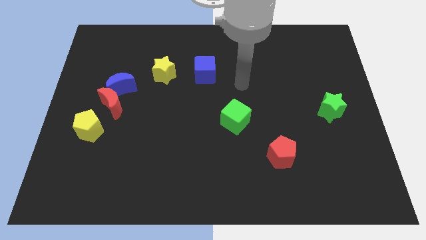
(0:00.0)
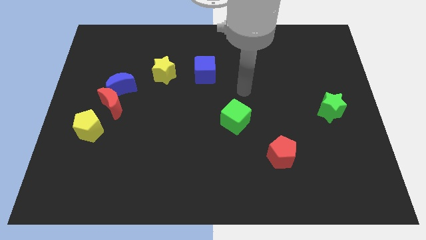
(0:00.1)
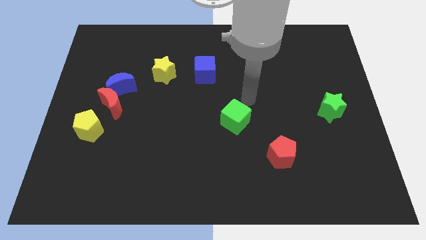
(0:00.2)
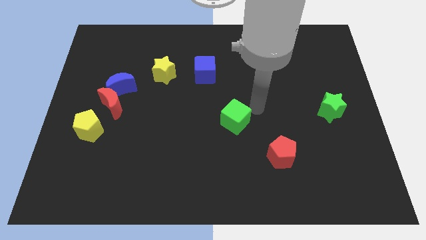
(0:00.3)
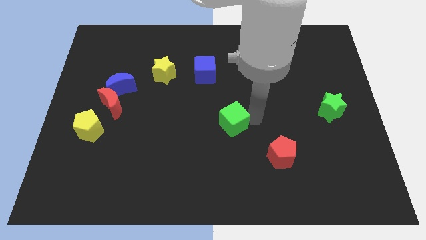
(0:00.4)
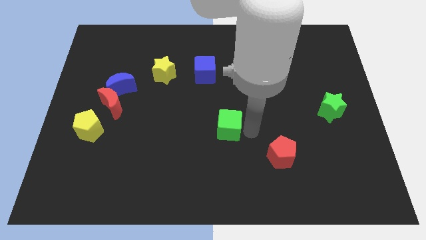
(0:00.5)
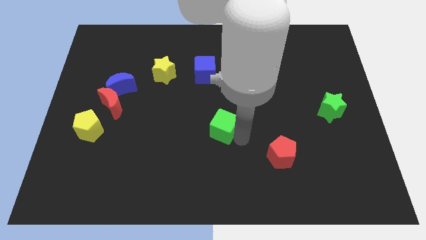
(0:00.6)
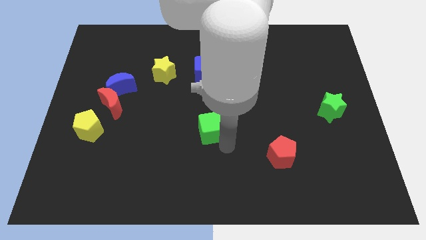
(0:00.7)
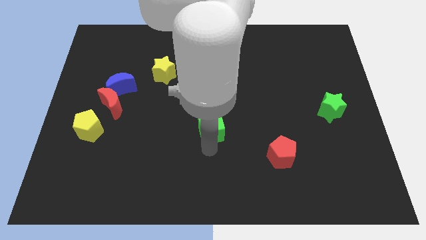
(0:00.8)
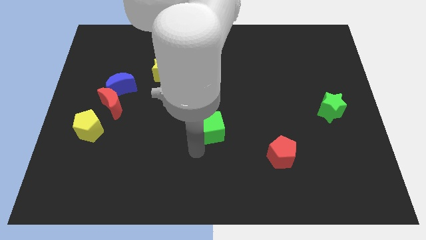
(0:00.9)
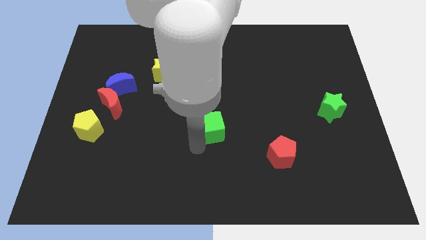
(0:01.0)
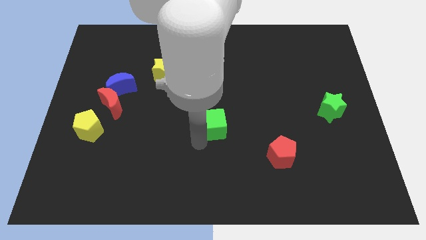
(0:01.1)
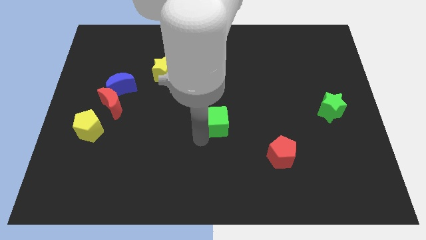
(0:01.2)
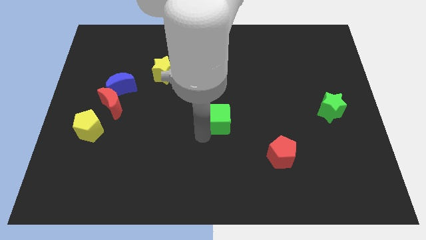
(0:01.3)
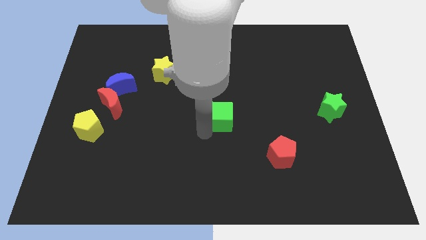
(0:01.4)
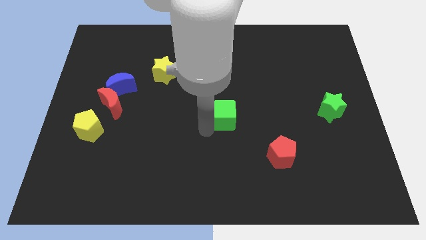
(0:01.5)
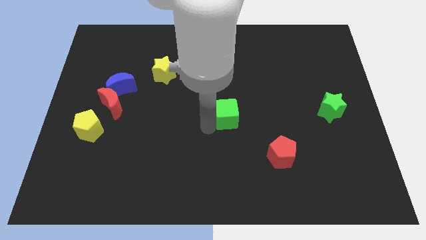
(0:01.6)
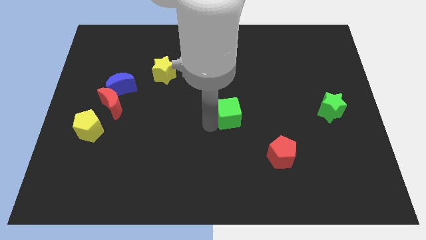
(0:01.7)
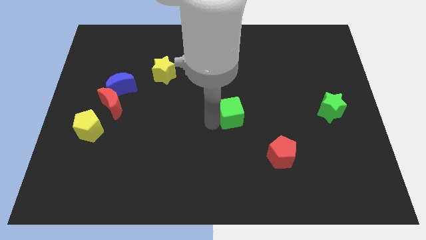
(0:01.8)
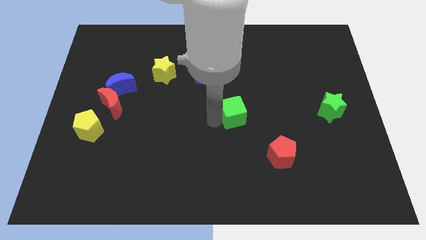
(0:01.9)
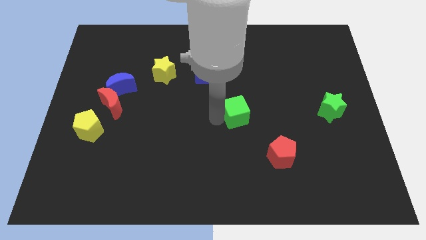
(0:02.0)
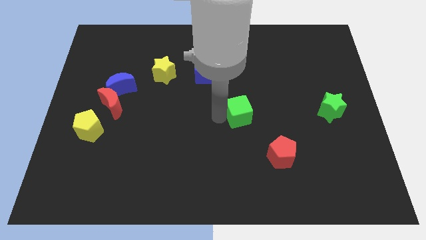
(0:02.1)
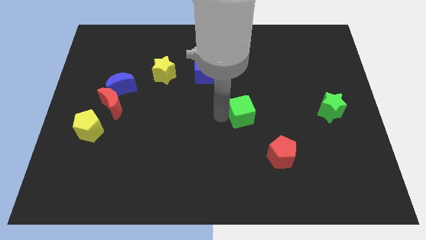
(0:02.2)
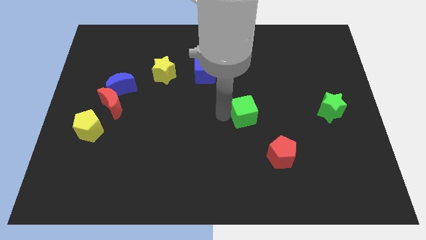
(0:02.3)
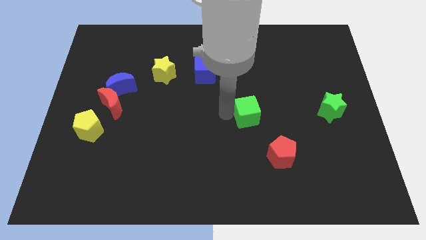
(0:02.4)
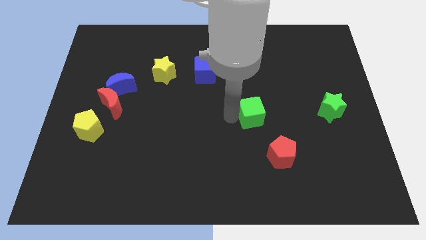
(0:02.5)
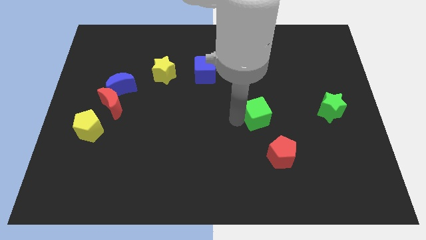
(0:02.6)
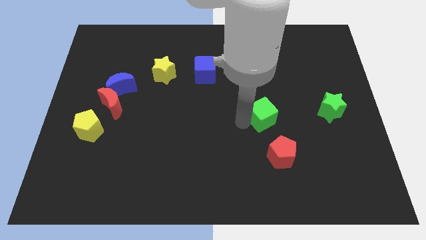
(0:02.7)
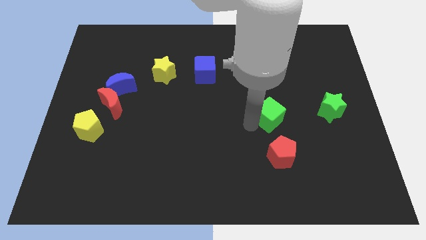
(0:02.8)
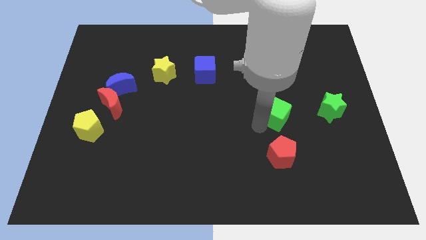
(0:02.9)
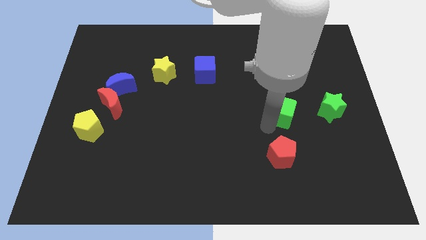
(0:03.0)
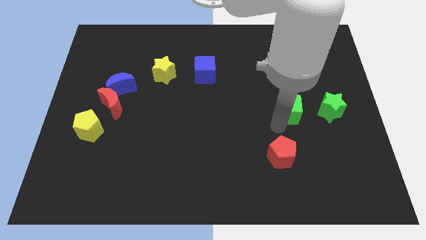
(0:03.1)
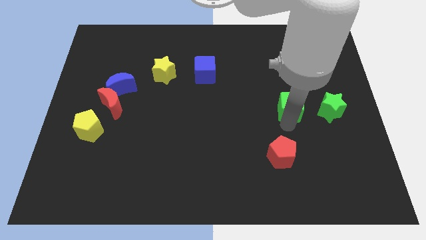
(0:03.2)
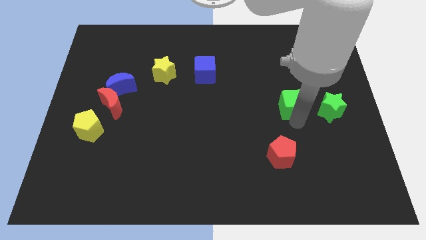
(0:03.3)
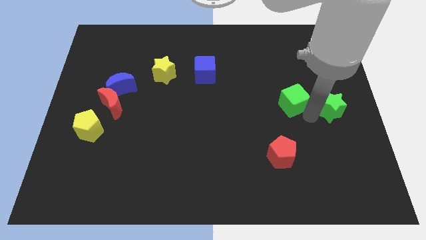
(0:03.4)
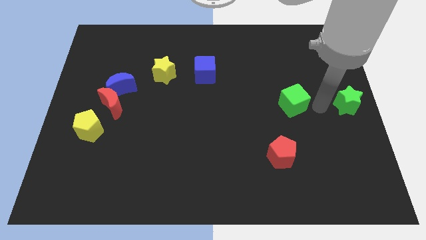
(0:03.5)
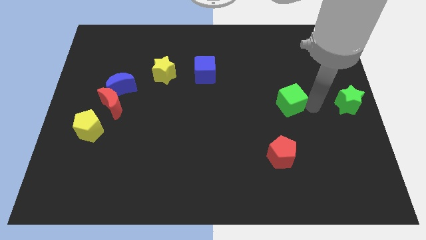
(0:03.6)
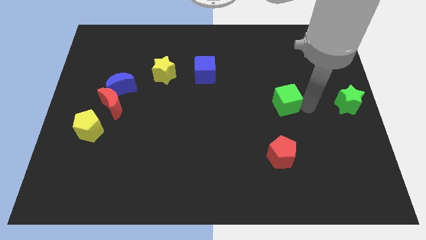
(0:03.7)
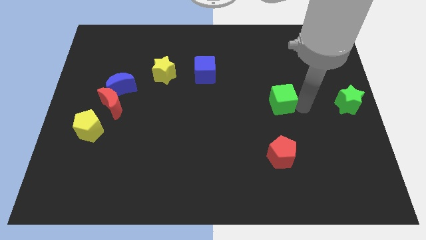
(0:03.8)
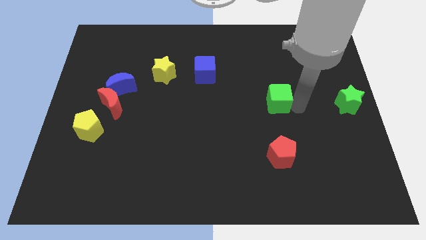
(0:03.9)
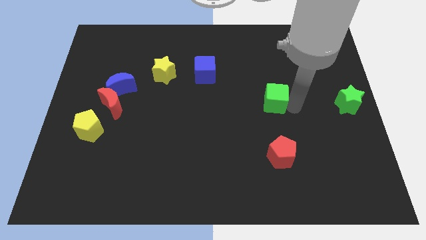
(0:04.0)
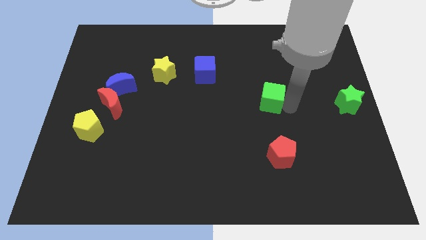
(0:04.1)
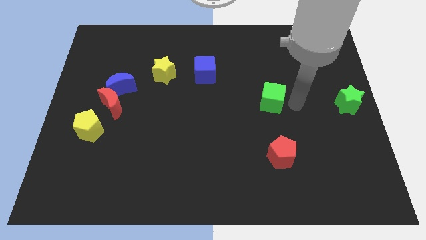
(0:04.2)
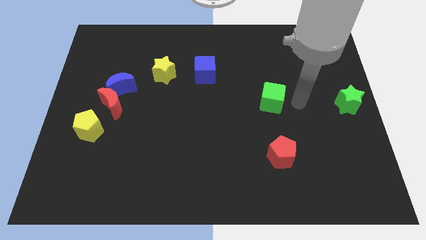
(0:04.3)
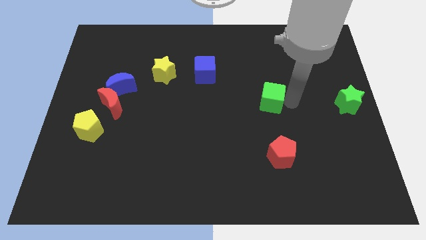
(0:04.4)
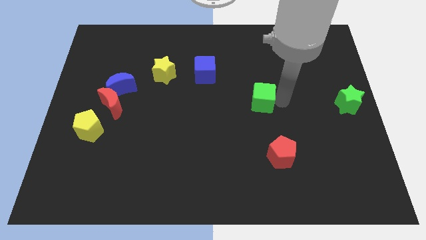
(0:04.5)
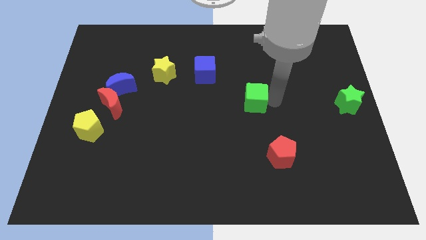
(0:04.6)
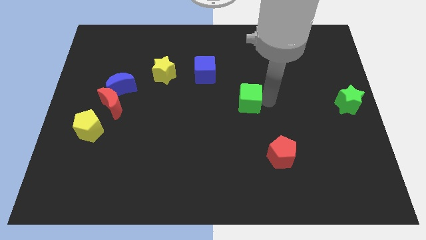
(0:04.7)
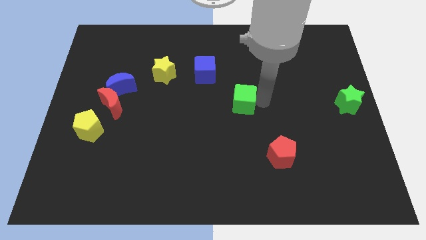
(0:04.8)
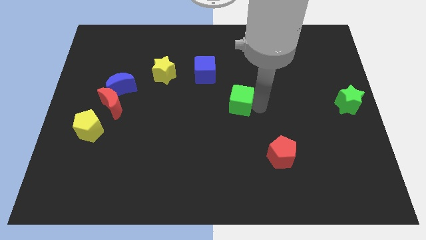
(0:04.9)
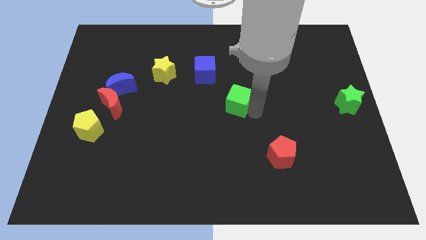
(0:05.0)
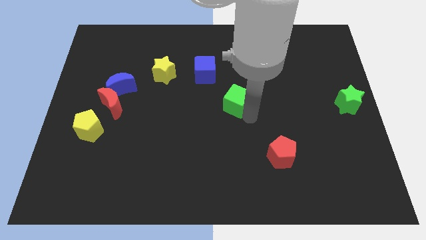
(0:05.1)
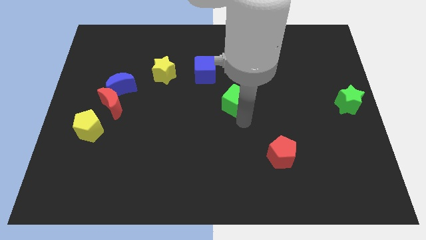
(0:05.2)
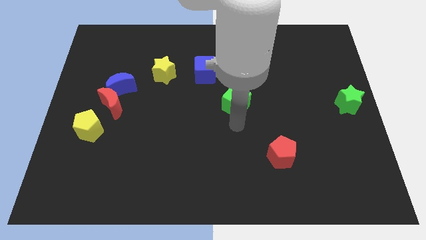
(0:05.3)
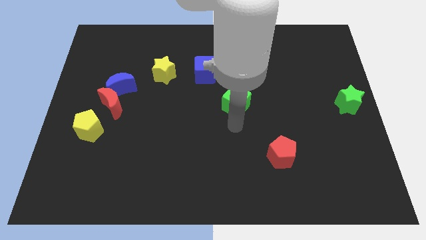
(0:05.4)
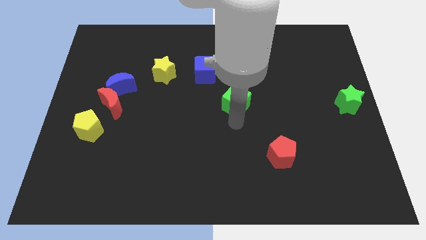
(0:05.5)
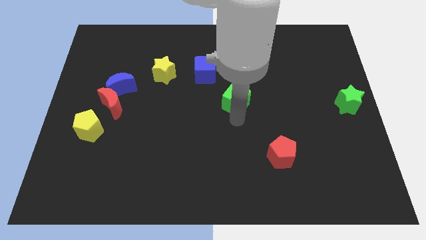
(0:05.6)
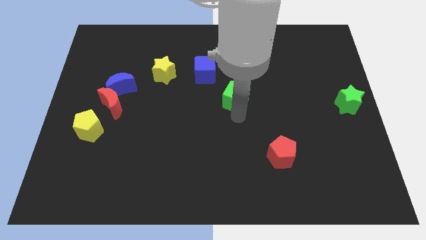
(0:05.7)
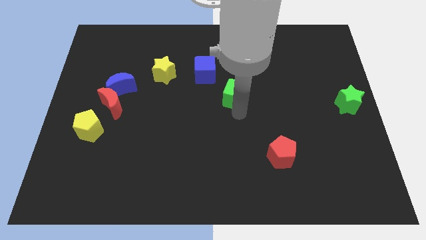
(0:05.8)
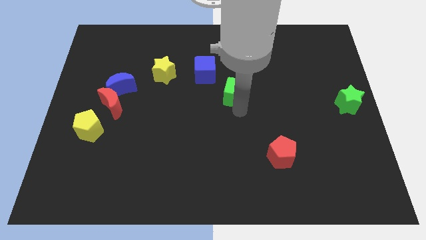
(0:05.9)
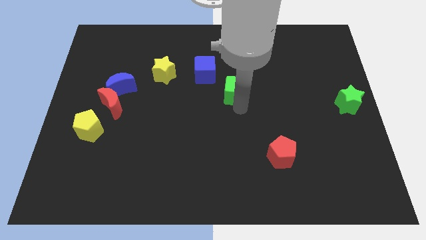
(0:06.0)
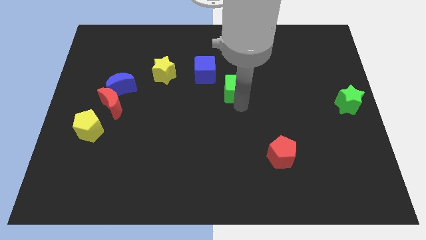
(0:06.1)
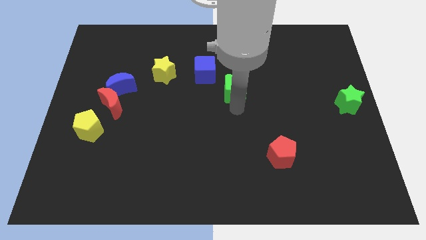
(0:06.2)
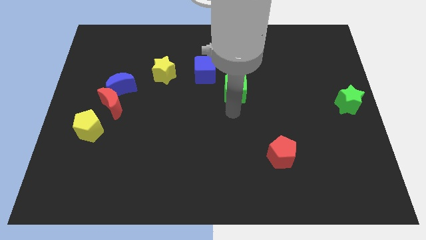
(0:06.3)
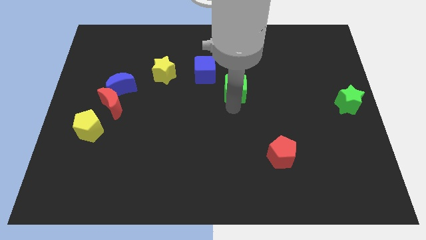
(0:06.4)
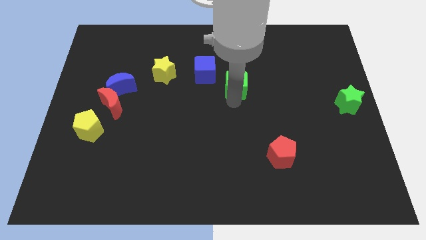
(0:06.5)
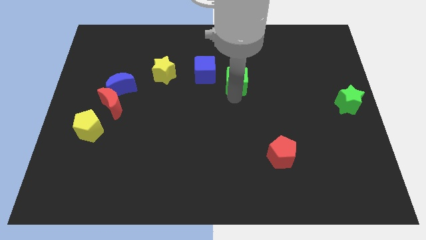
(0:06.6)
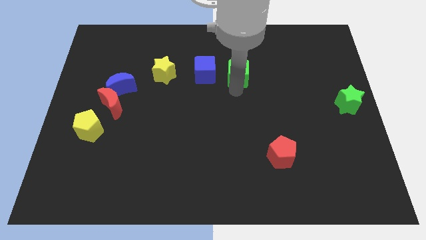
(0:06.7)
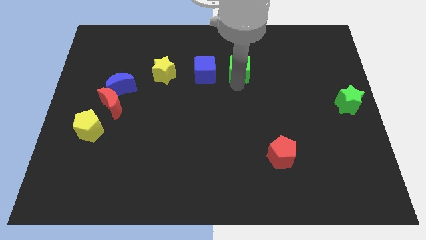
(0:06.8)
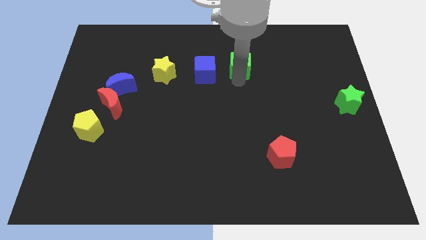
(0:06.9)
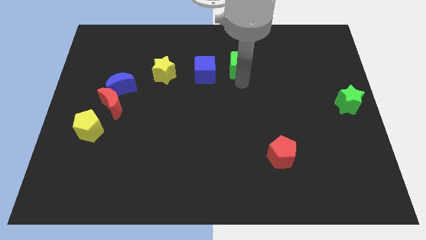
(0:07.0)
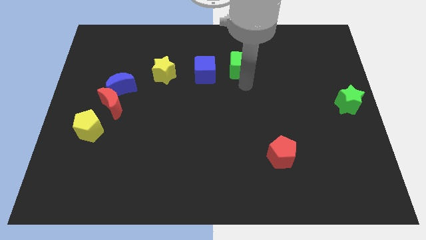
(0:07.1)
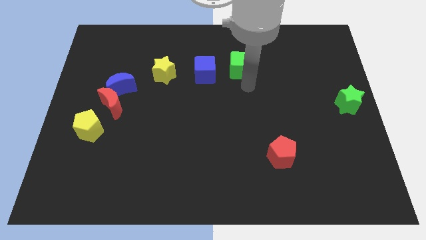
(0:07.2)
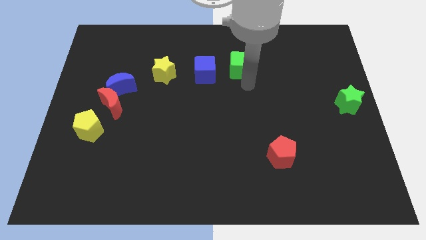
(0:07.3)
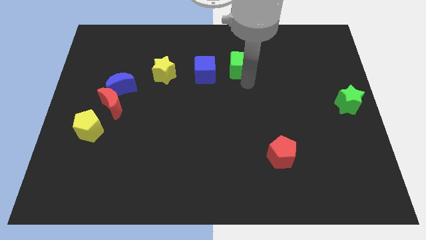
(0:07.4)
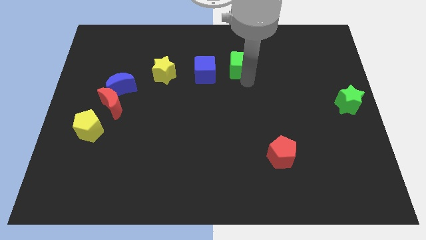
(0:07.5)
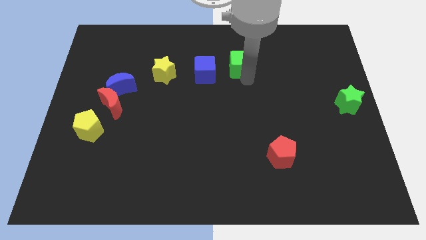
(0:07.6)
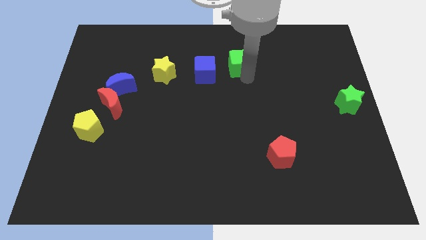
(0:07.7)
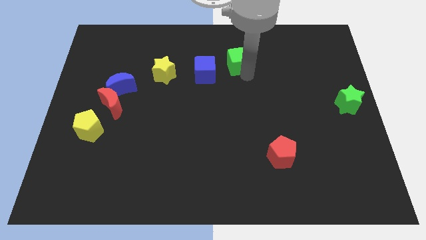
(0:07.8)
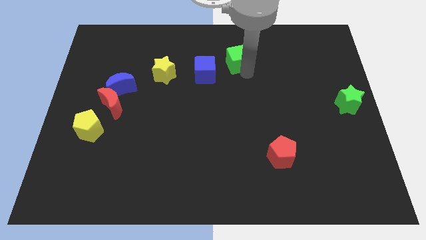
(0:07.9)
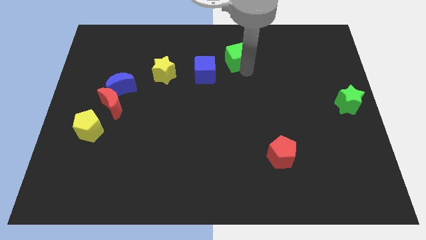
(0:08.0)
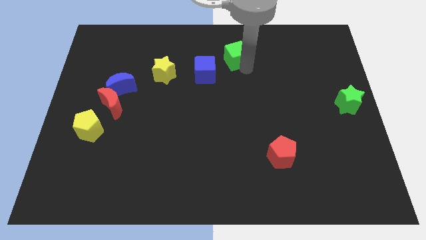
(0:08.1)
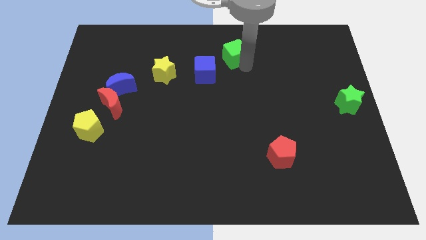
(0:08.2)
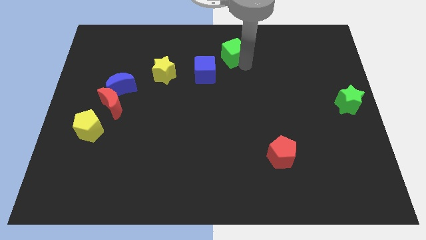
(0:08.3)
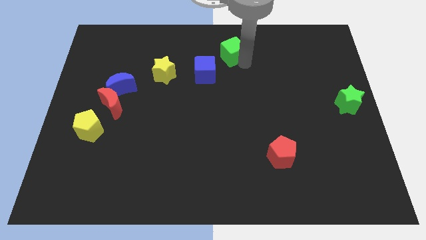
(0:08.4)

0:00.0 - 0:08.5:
slide the green cube to the top side
